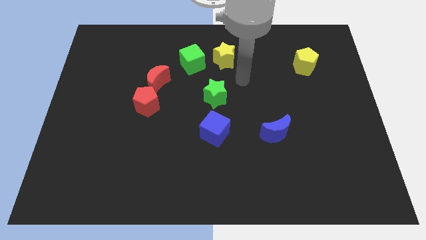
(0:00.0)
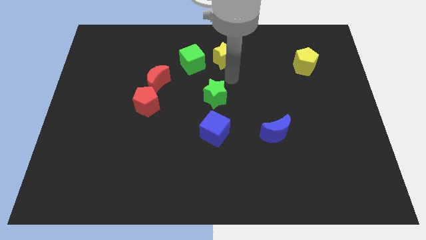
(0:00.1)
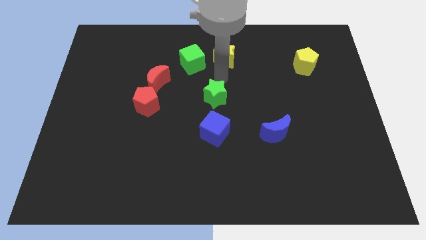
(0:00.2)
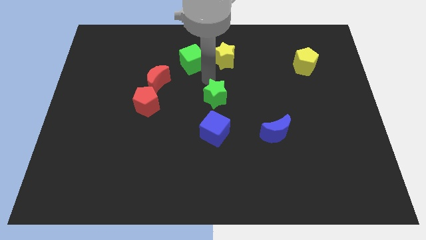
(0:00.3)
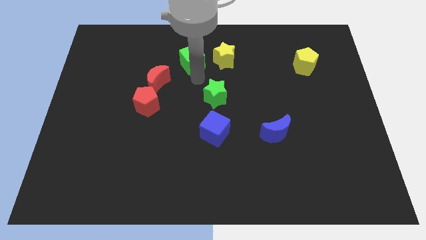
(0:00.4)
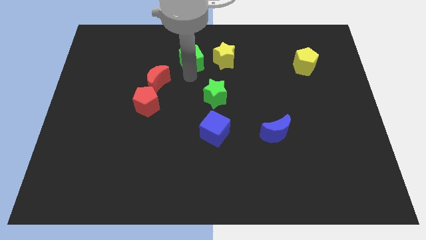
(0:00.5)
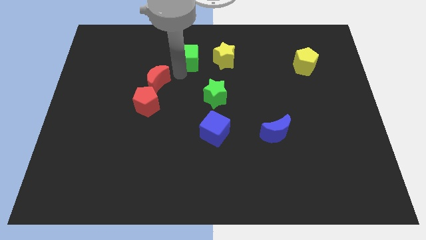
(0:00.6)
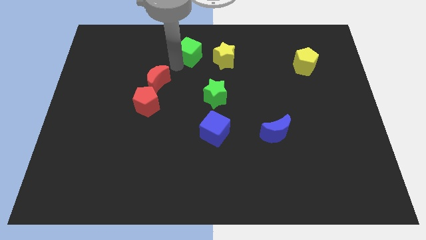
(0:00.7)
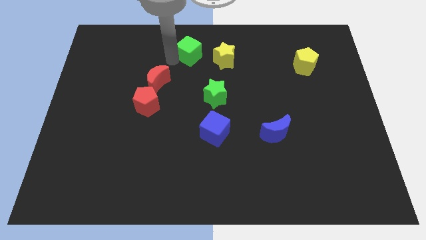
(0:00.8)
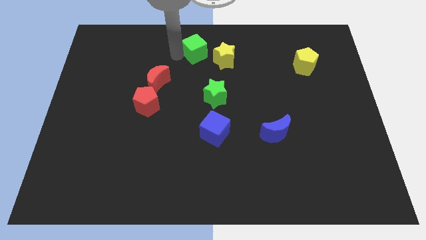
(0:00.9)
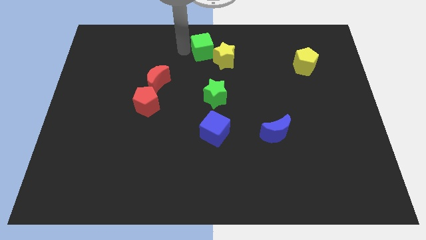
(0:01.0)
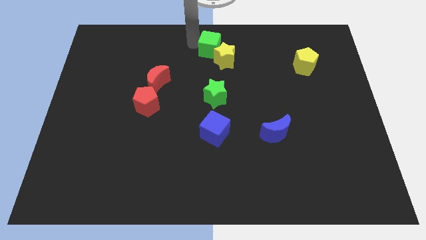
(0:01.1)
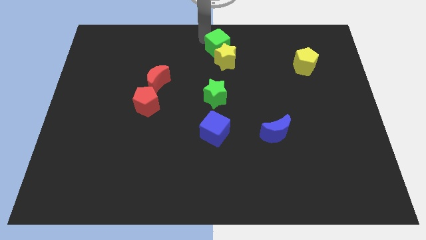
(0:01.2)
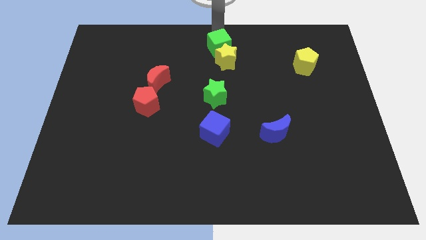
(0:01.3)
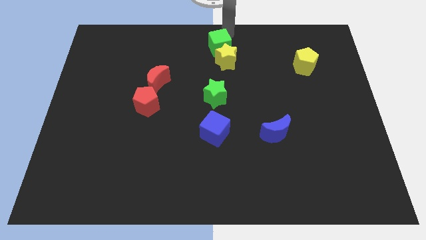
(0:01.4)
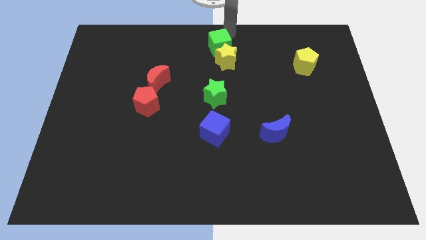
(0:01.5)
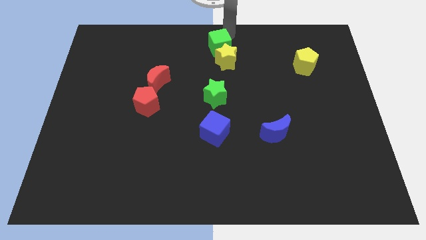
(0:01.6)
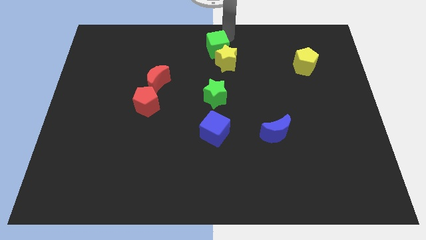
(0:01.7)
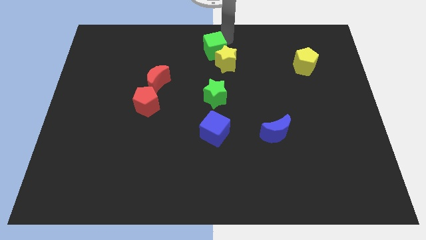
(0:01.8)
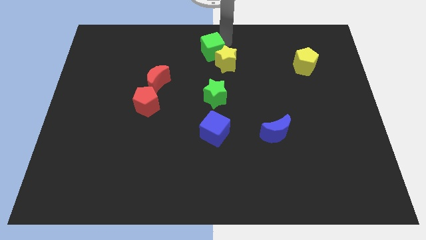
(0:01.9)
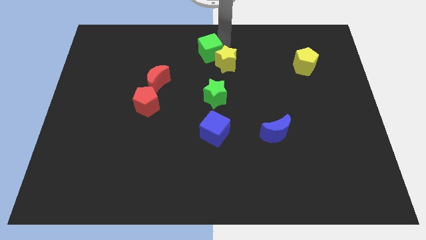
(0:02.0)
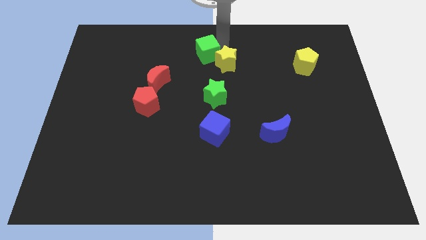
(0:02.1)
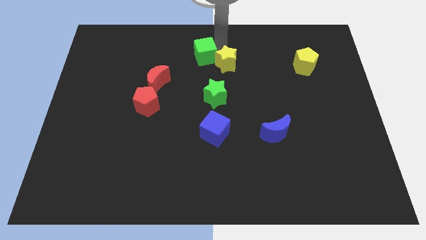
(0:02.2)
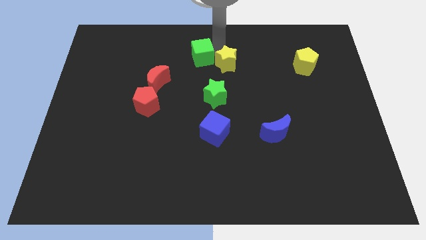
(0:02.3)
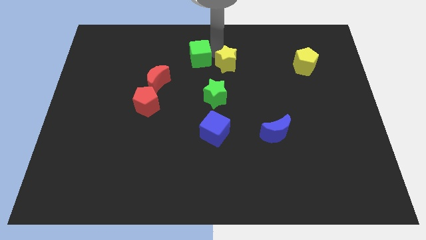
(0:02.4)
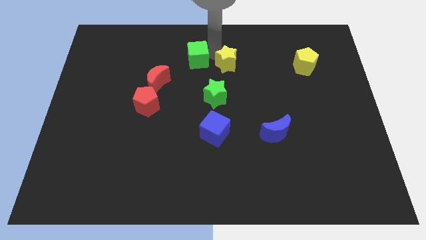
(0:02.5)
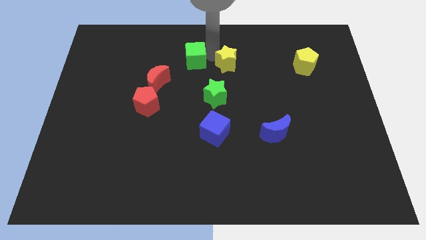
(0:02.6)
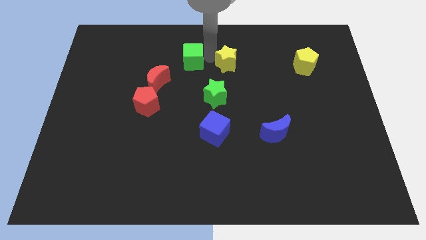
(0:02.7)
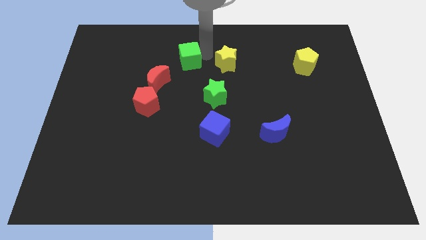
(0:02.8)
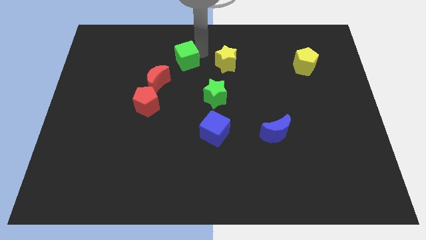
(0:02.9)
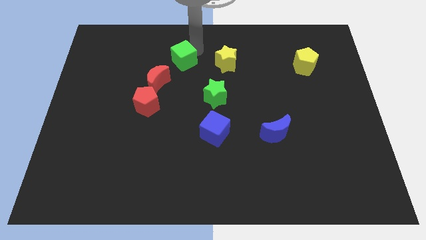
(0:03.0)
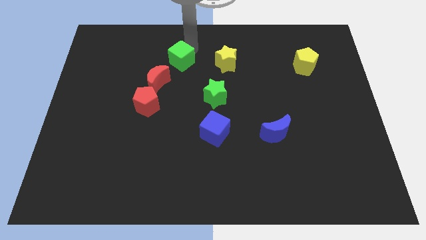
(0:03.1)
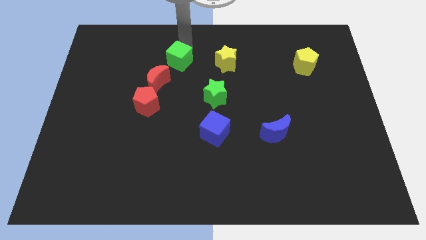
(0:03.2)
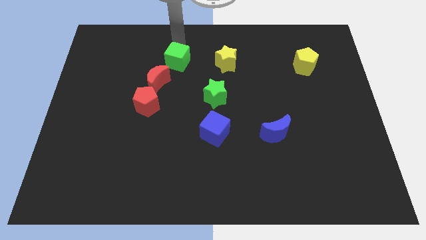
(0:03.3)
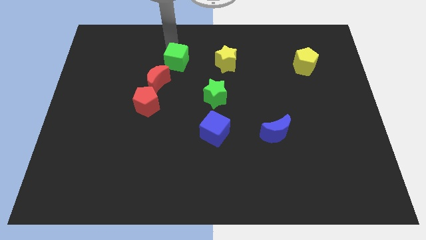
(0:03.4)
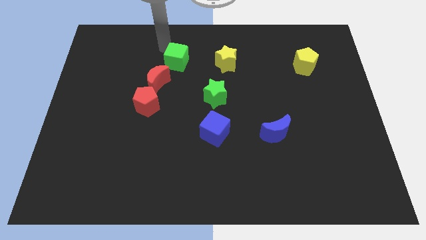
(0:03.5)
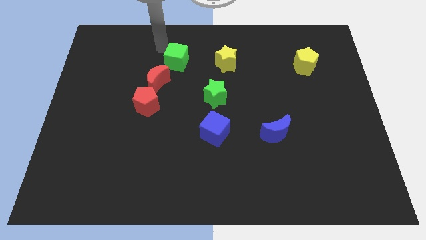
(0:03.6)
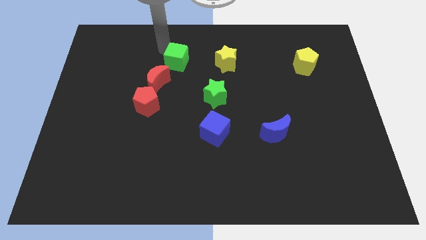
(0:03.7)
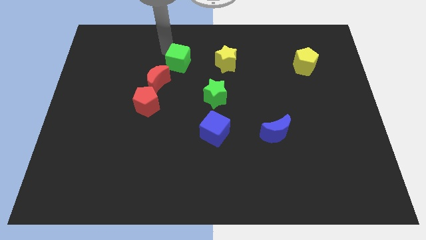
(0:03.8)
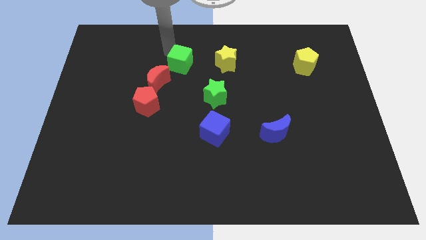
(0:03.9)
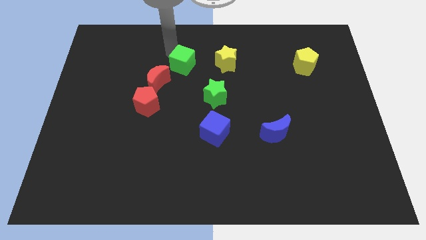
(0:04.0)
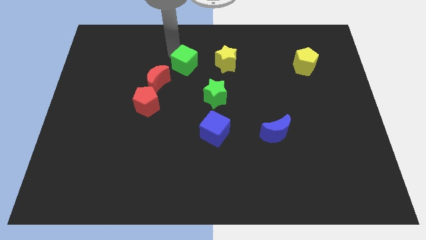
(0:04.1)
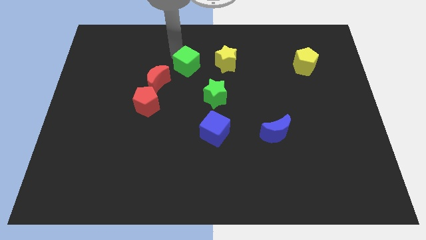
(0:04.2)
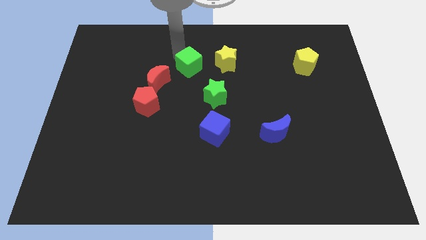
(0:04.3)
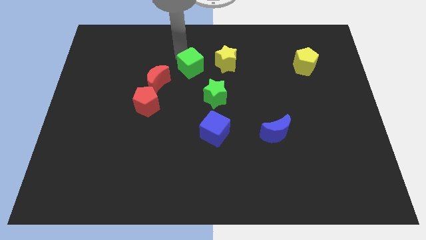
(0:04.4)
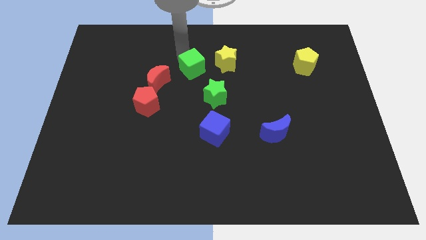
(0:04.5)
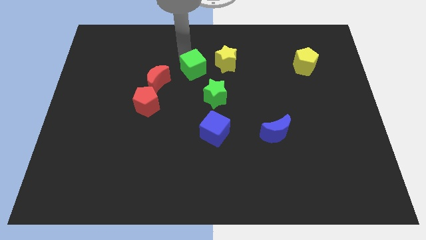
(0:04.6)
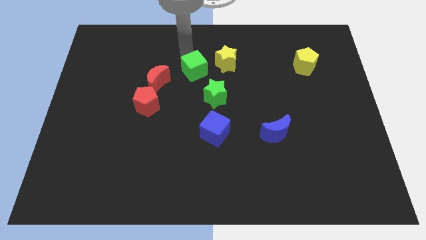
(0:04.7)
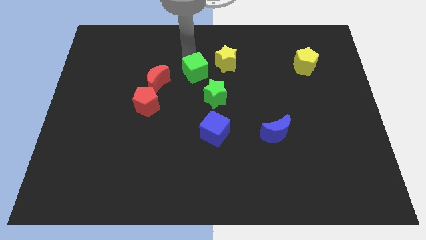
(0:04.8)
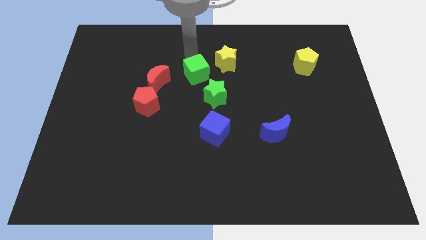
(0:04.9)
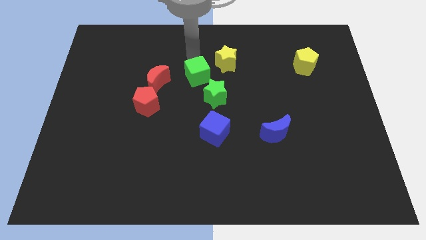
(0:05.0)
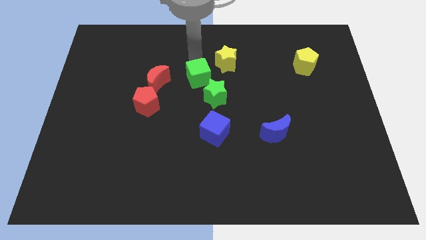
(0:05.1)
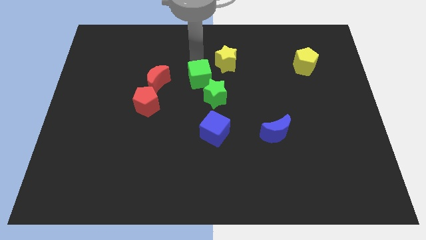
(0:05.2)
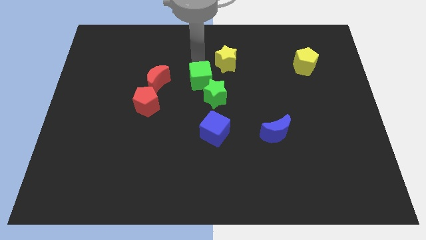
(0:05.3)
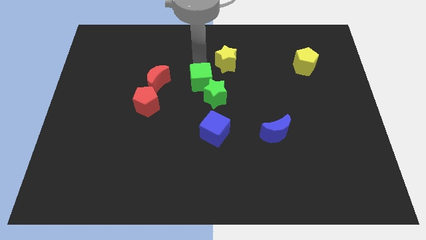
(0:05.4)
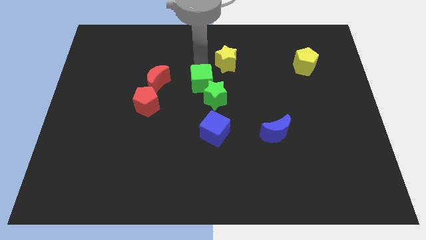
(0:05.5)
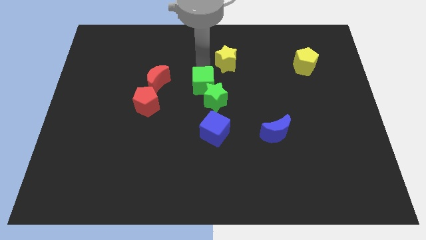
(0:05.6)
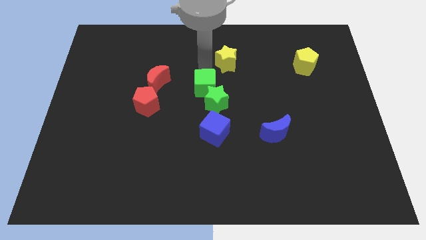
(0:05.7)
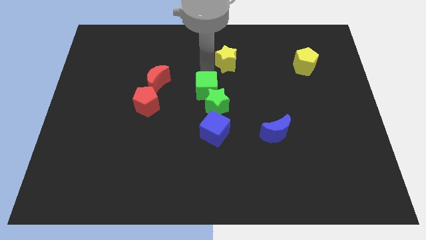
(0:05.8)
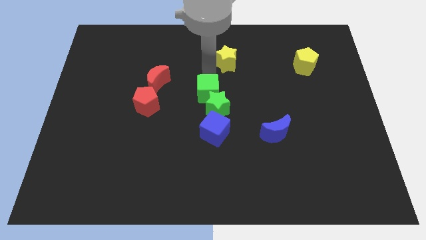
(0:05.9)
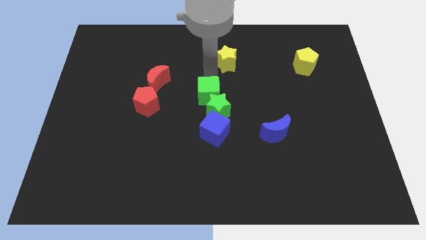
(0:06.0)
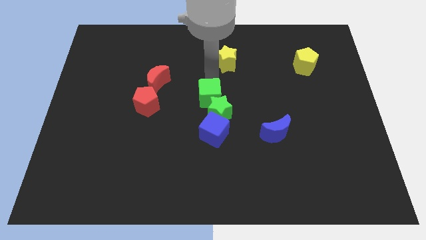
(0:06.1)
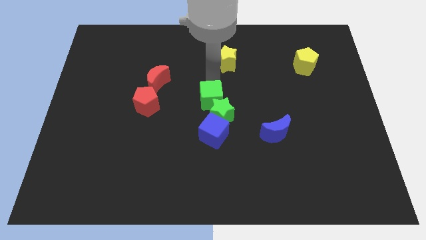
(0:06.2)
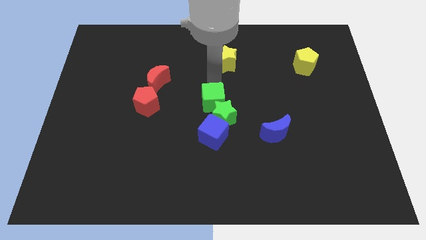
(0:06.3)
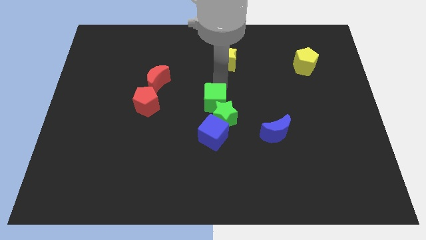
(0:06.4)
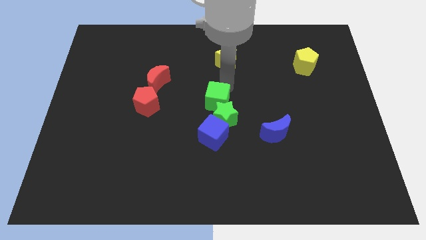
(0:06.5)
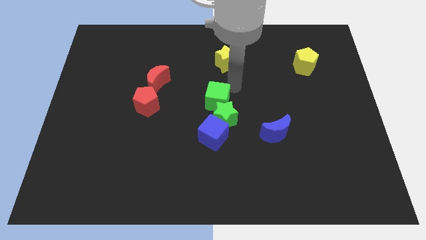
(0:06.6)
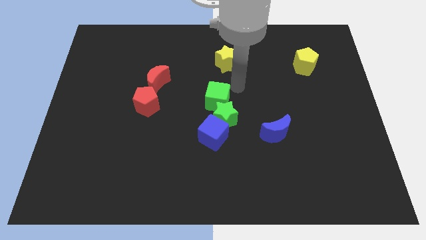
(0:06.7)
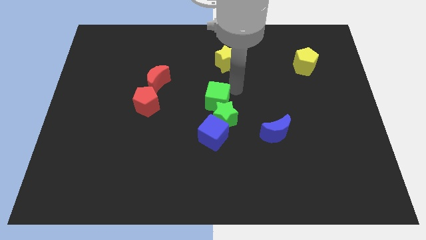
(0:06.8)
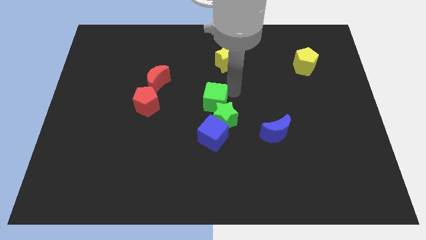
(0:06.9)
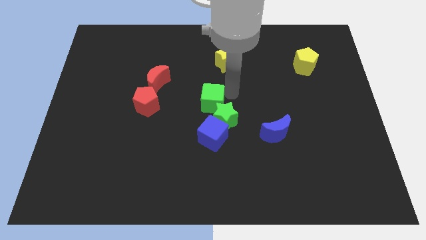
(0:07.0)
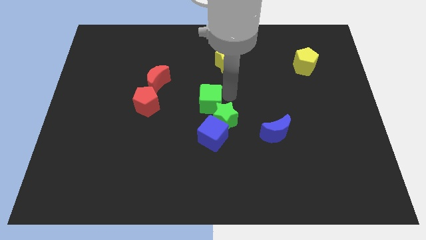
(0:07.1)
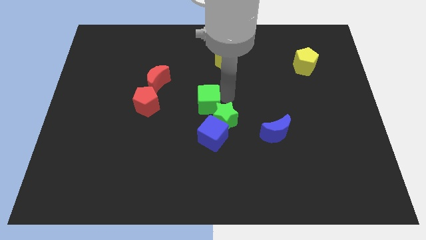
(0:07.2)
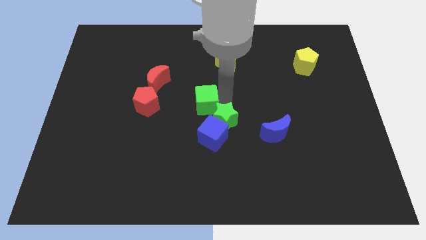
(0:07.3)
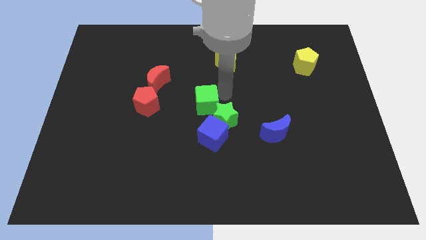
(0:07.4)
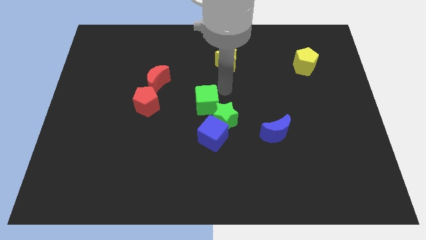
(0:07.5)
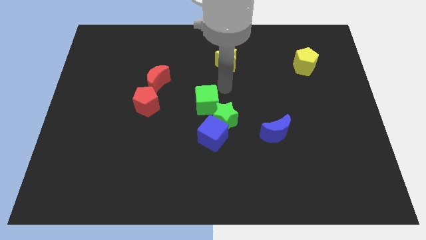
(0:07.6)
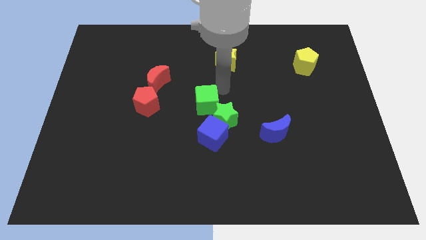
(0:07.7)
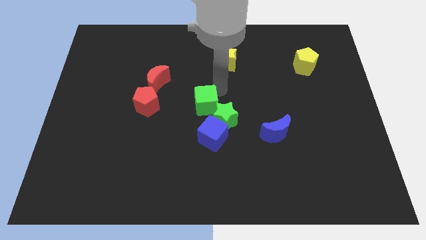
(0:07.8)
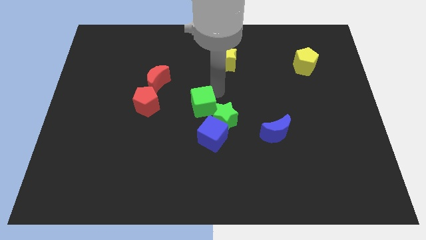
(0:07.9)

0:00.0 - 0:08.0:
put the green cube to the top left of the blue cube
